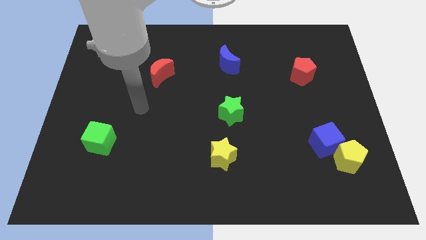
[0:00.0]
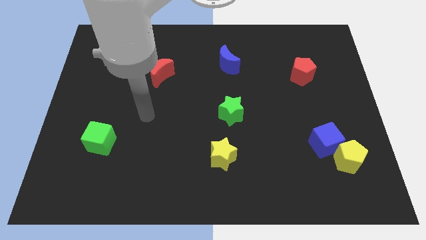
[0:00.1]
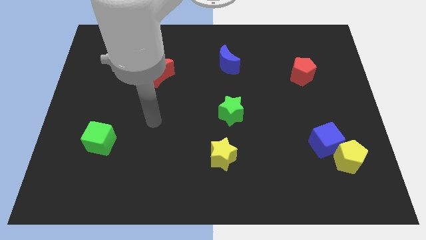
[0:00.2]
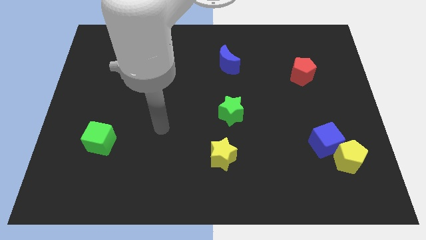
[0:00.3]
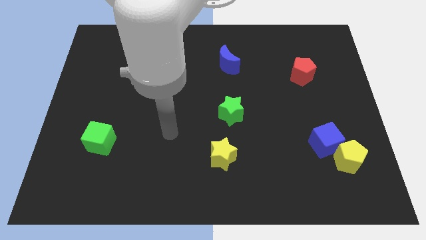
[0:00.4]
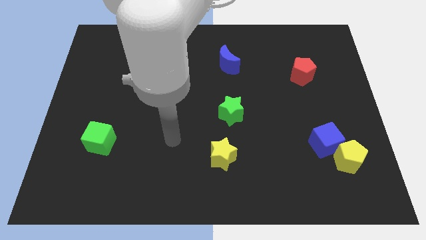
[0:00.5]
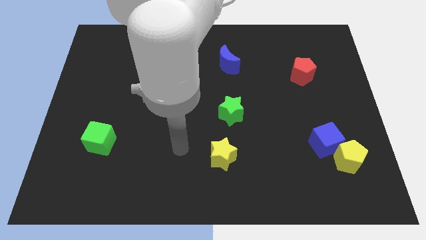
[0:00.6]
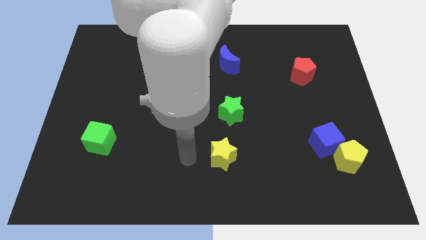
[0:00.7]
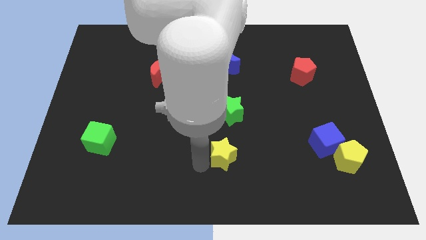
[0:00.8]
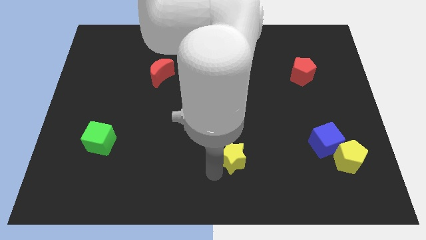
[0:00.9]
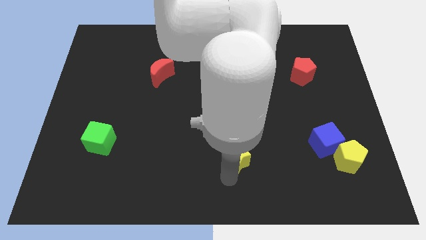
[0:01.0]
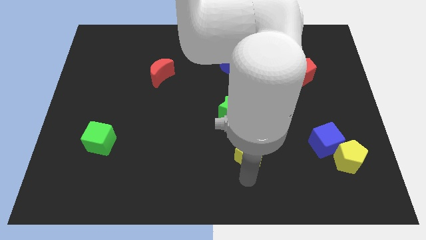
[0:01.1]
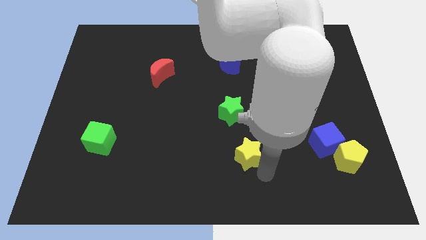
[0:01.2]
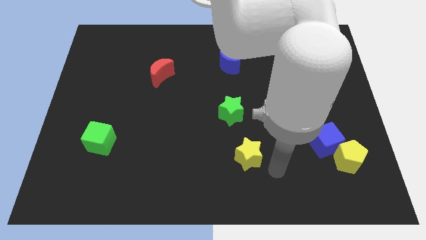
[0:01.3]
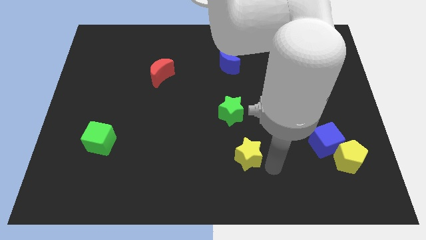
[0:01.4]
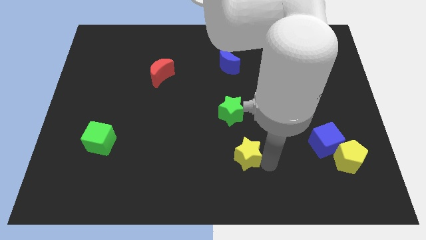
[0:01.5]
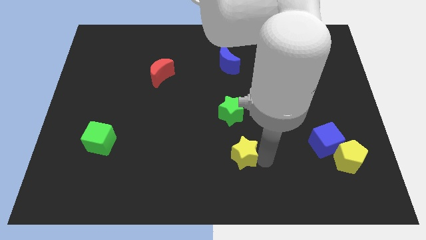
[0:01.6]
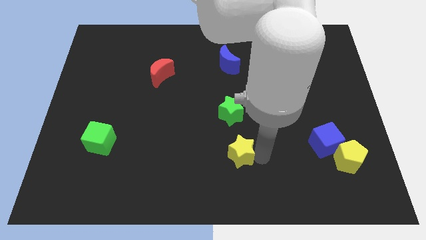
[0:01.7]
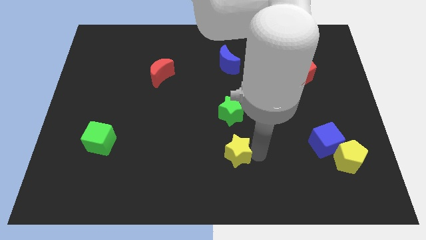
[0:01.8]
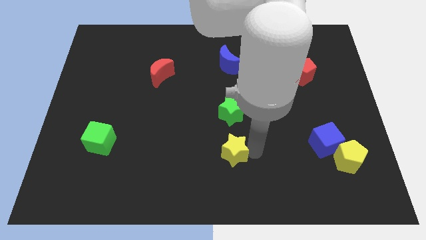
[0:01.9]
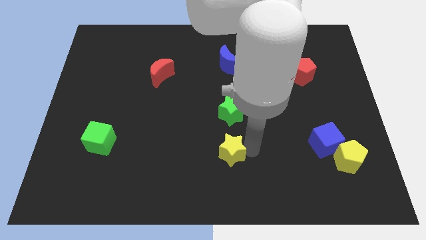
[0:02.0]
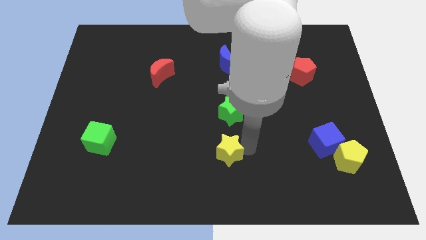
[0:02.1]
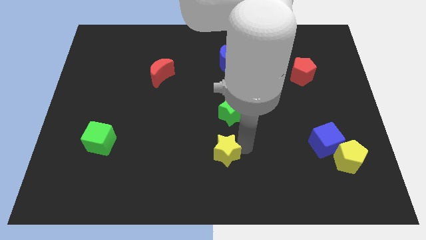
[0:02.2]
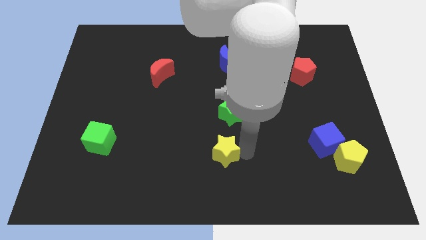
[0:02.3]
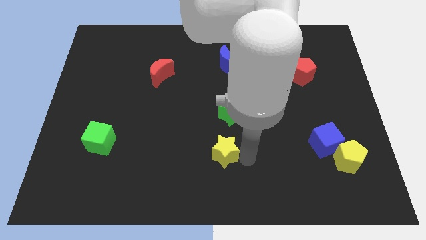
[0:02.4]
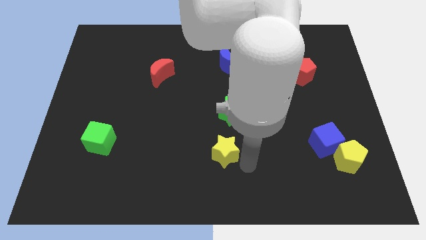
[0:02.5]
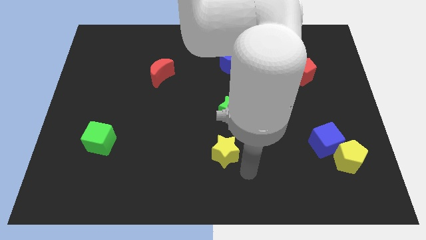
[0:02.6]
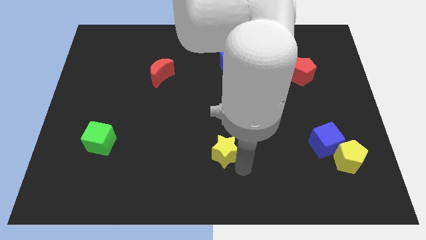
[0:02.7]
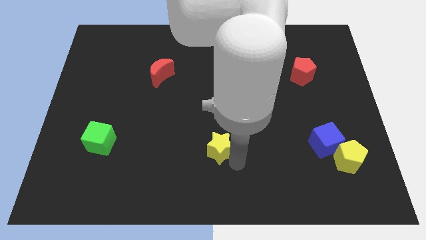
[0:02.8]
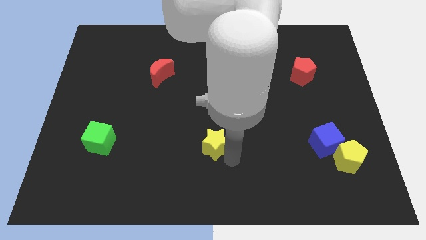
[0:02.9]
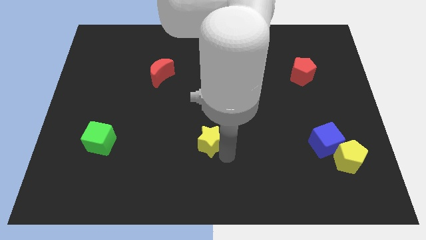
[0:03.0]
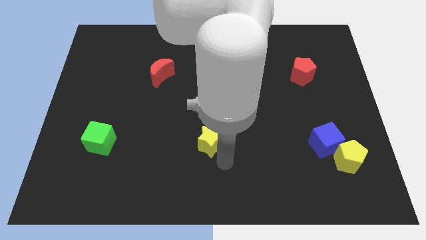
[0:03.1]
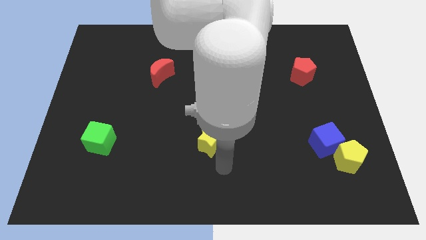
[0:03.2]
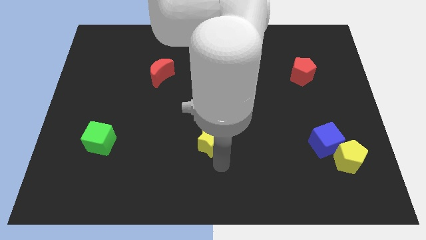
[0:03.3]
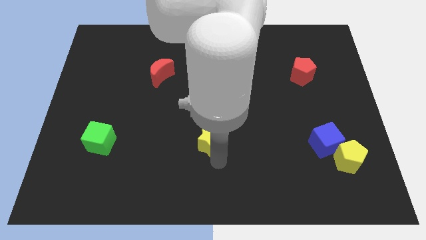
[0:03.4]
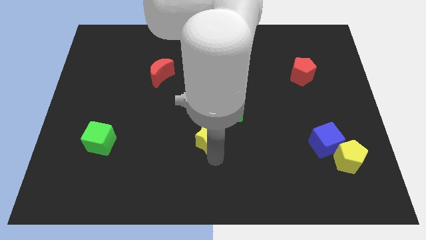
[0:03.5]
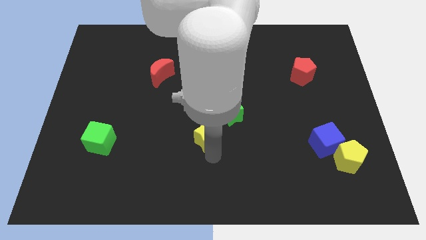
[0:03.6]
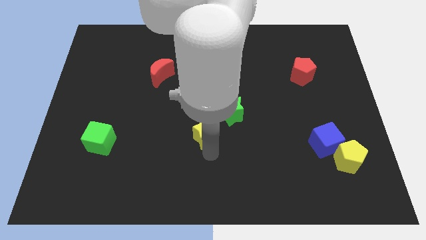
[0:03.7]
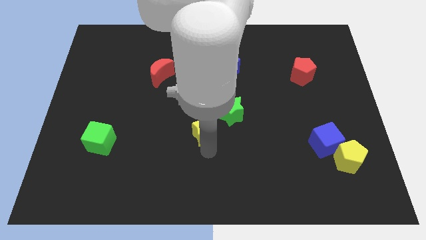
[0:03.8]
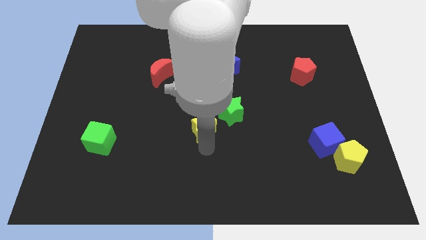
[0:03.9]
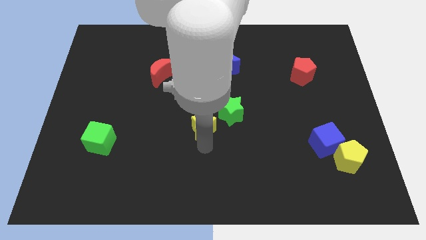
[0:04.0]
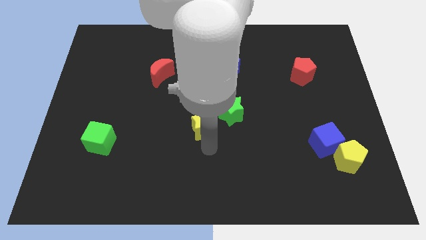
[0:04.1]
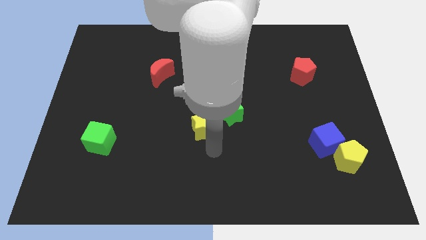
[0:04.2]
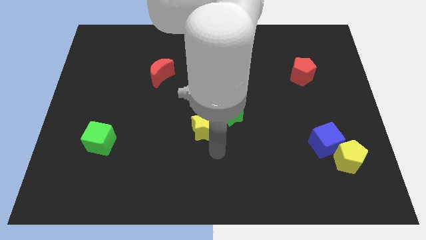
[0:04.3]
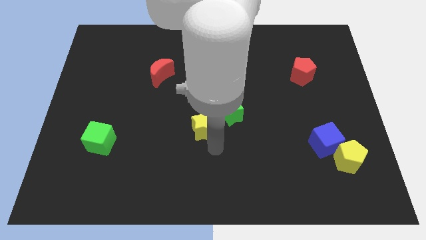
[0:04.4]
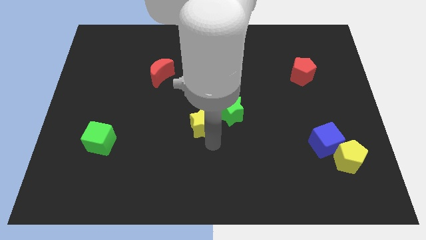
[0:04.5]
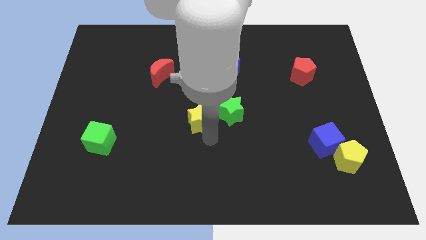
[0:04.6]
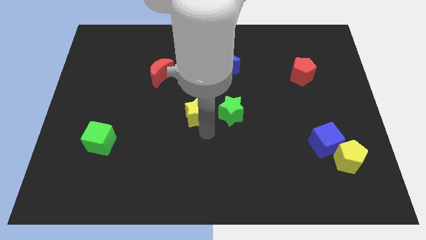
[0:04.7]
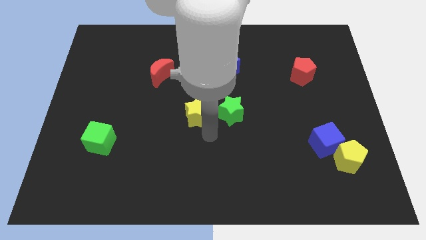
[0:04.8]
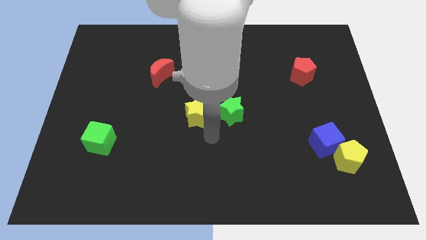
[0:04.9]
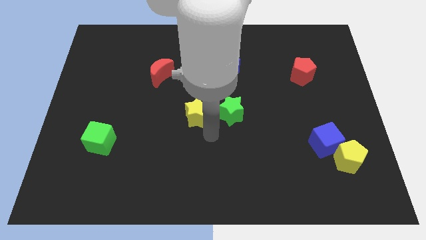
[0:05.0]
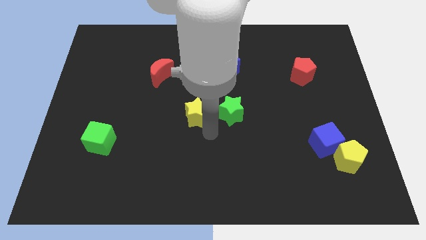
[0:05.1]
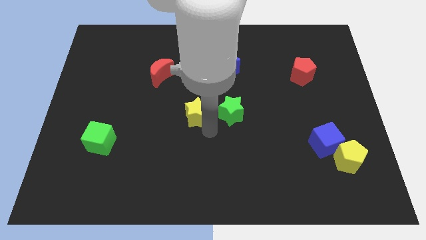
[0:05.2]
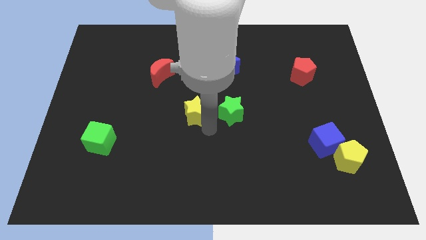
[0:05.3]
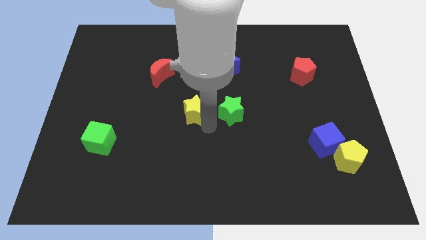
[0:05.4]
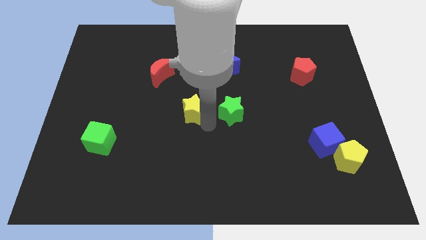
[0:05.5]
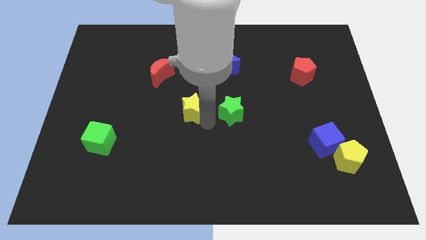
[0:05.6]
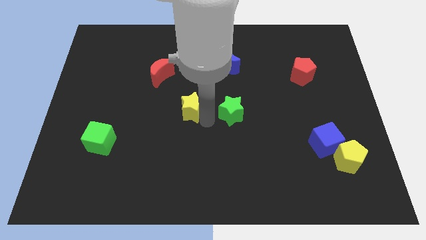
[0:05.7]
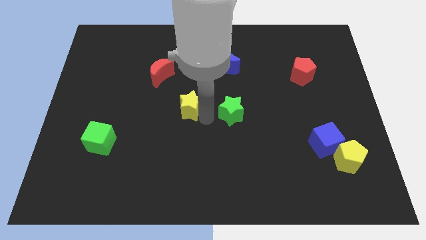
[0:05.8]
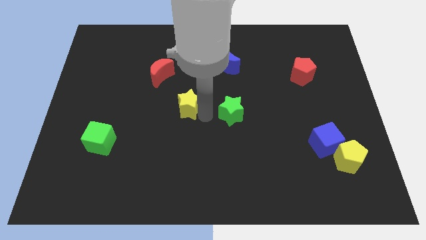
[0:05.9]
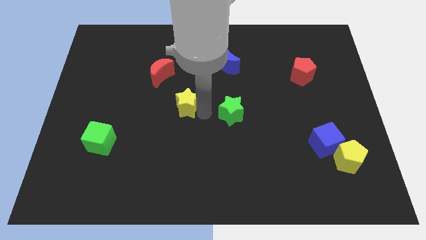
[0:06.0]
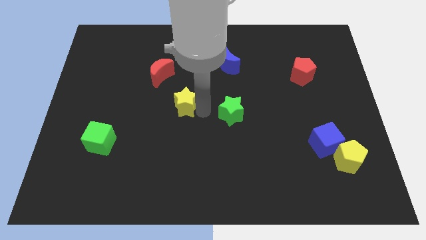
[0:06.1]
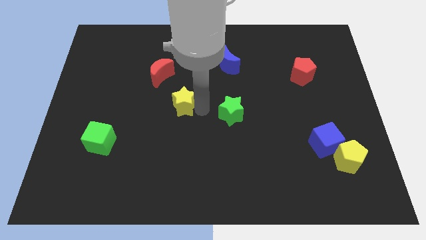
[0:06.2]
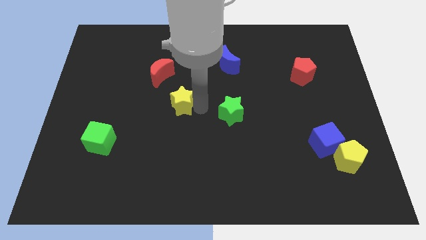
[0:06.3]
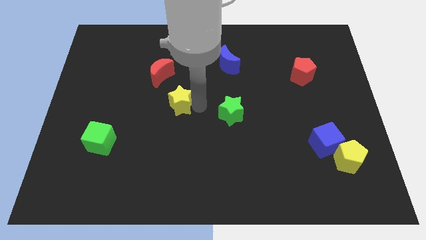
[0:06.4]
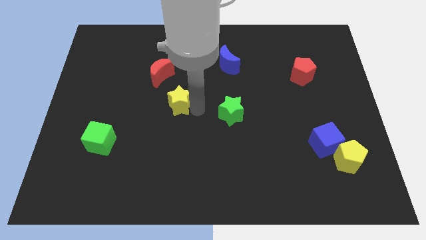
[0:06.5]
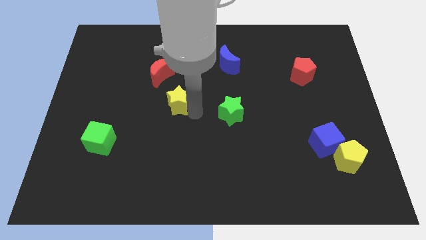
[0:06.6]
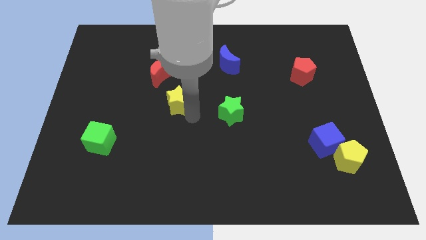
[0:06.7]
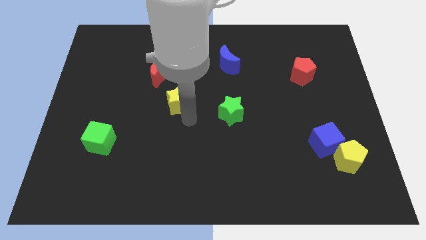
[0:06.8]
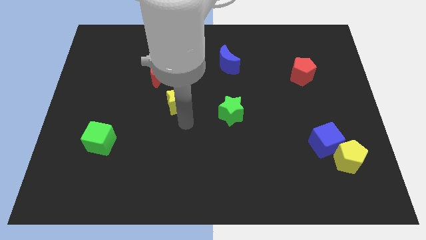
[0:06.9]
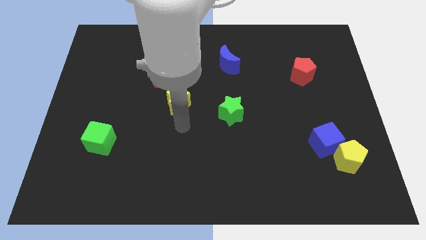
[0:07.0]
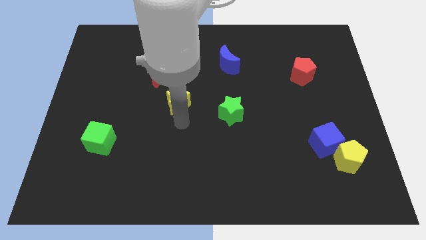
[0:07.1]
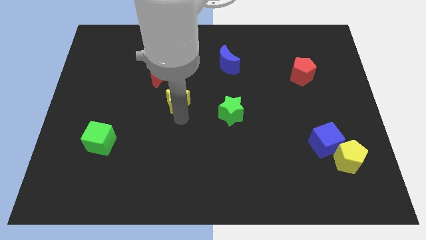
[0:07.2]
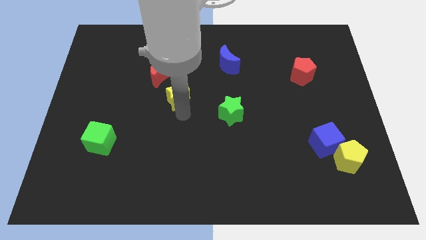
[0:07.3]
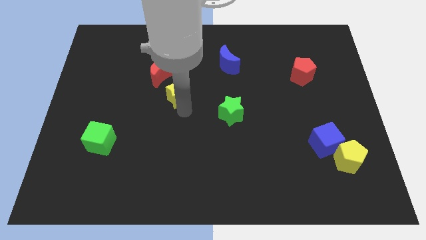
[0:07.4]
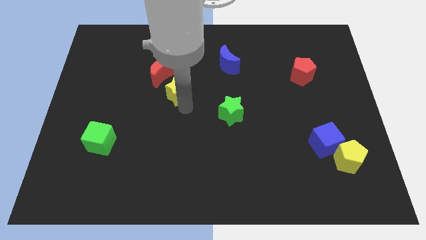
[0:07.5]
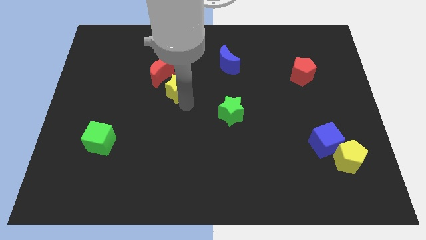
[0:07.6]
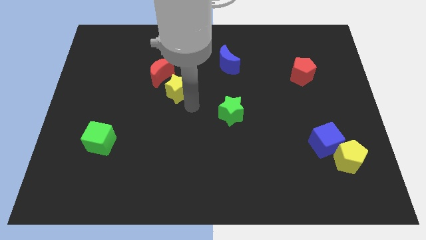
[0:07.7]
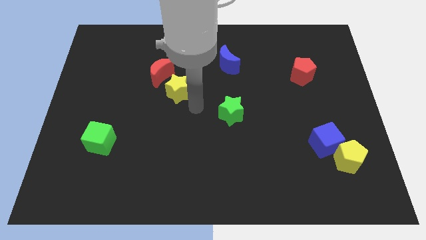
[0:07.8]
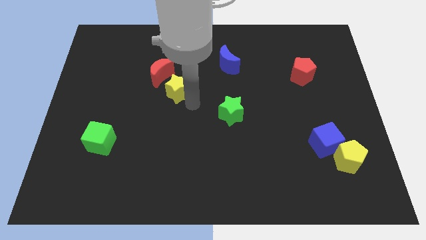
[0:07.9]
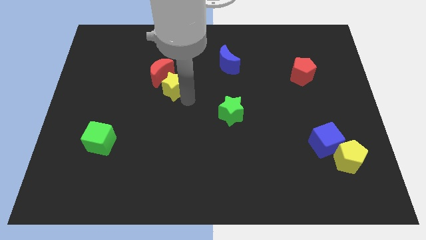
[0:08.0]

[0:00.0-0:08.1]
slide the yellow star next to the red moon
